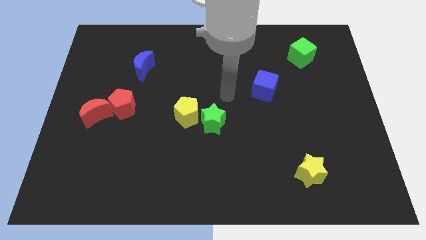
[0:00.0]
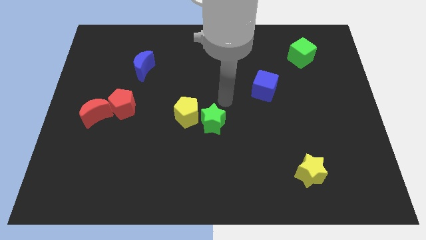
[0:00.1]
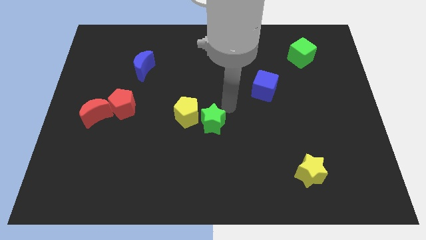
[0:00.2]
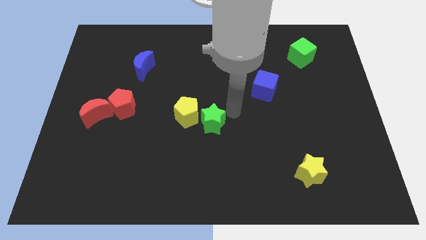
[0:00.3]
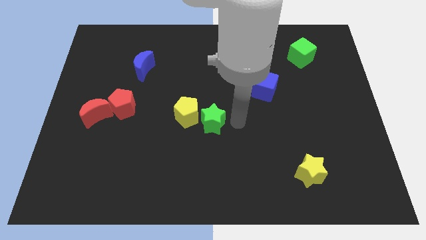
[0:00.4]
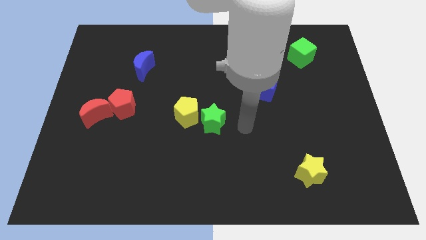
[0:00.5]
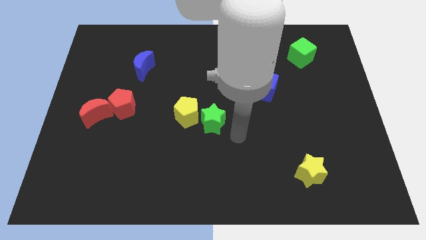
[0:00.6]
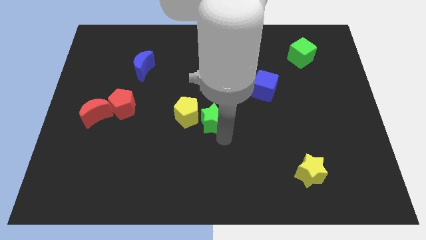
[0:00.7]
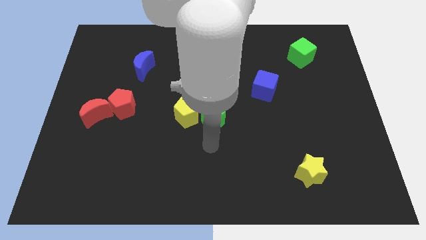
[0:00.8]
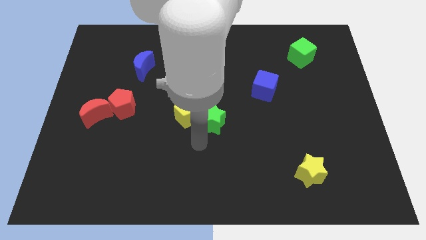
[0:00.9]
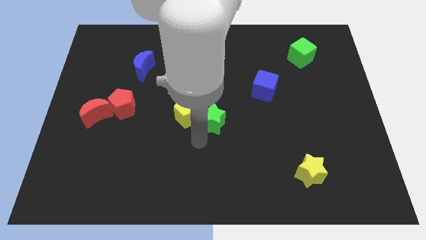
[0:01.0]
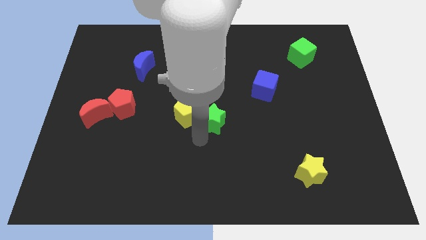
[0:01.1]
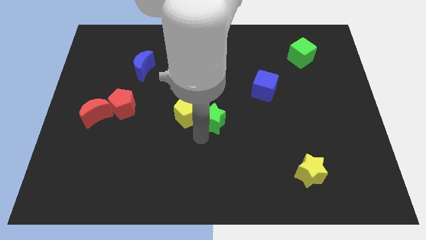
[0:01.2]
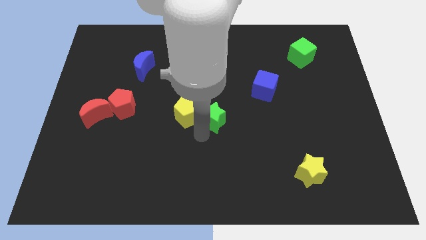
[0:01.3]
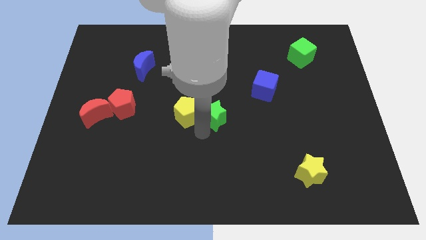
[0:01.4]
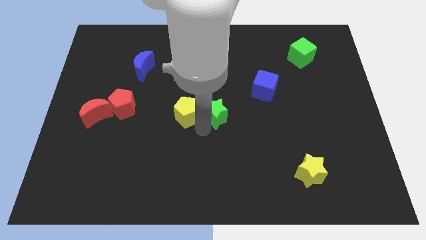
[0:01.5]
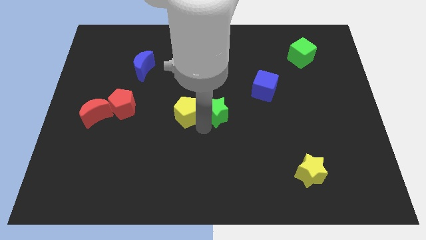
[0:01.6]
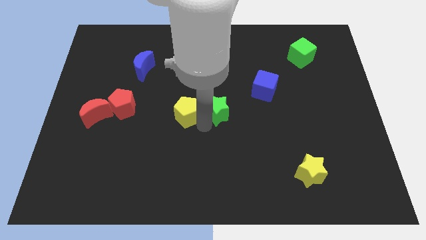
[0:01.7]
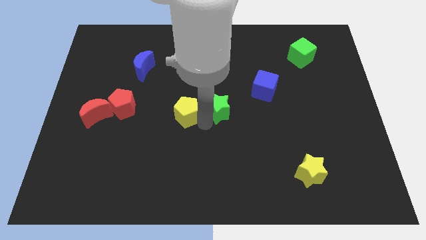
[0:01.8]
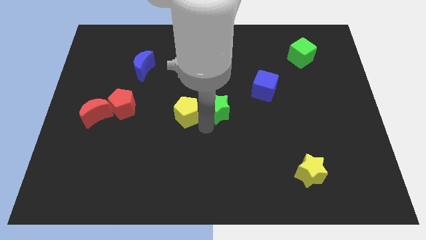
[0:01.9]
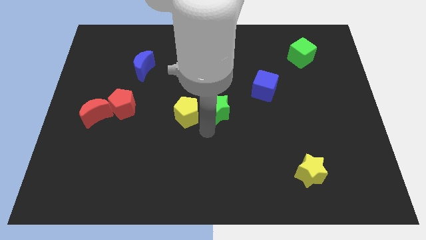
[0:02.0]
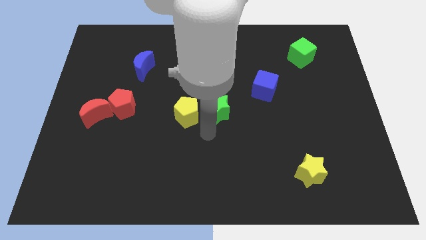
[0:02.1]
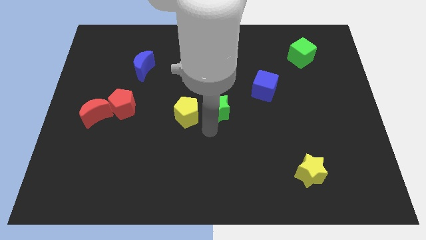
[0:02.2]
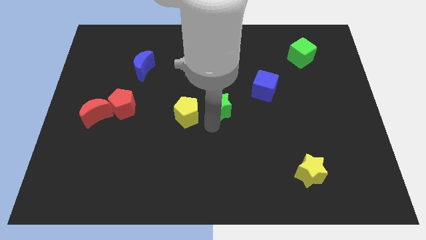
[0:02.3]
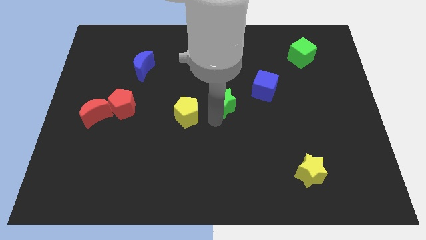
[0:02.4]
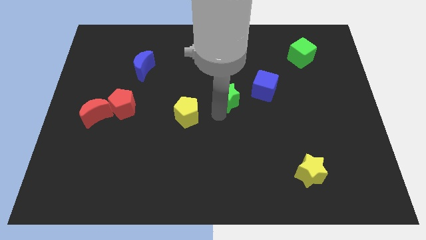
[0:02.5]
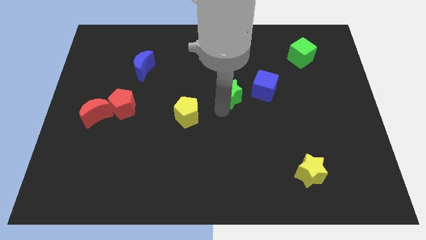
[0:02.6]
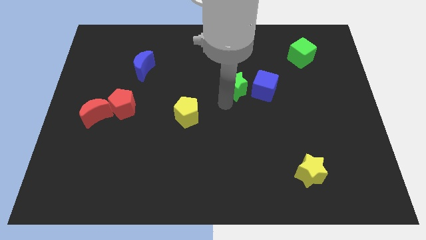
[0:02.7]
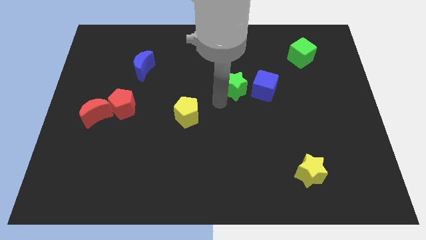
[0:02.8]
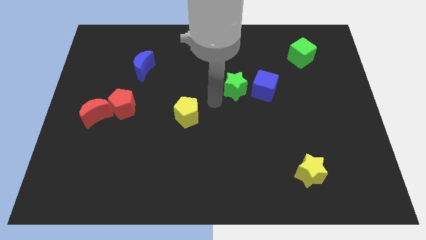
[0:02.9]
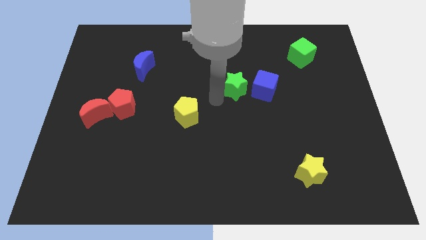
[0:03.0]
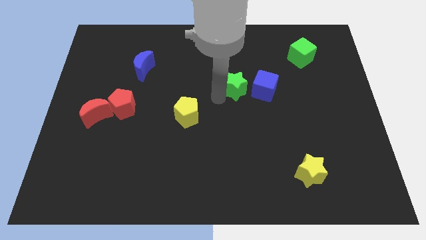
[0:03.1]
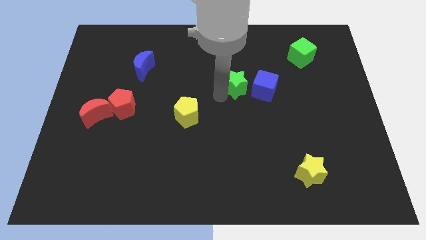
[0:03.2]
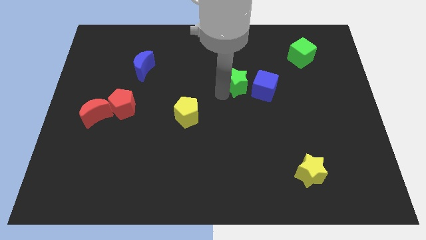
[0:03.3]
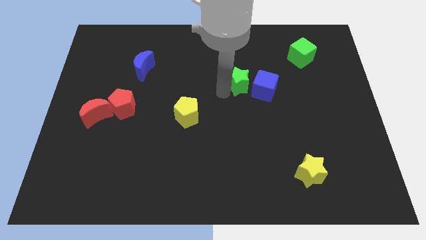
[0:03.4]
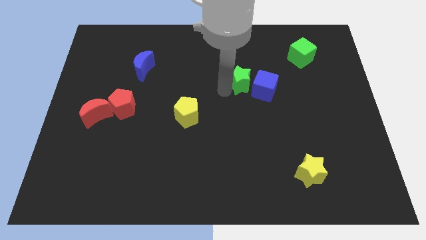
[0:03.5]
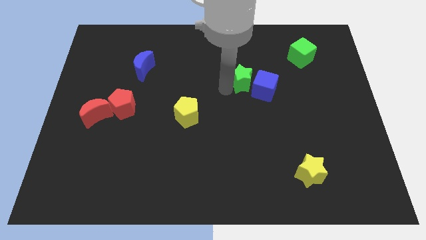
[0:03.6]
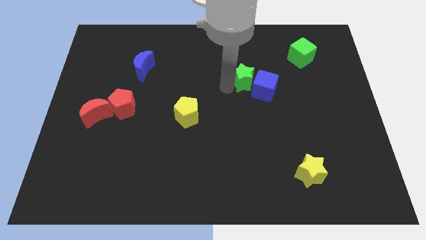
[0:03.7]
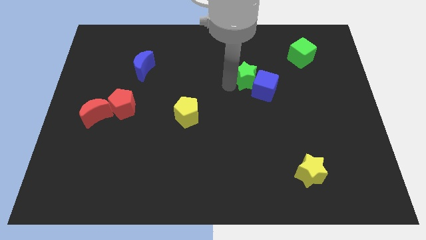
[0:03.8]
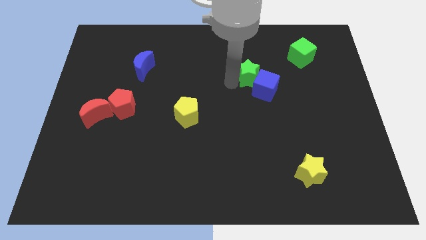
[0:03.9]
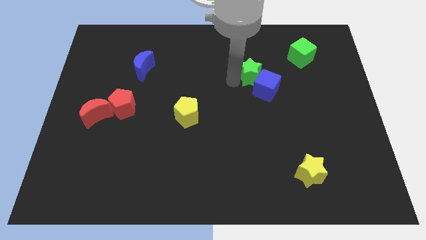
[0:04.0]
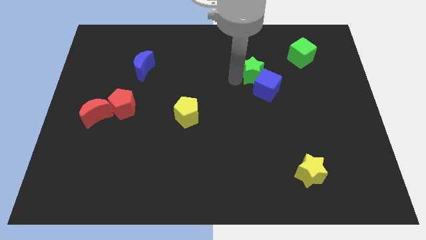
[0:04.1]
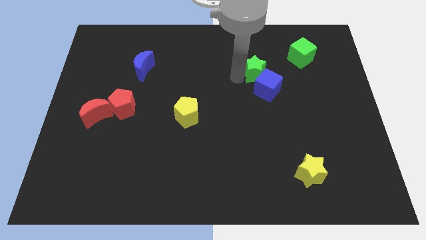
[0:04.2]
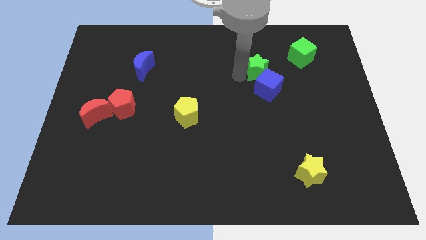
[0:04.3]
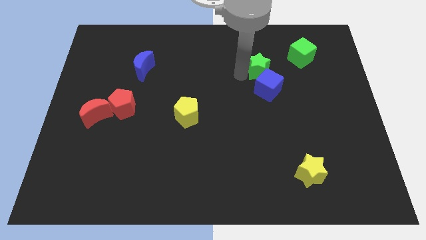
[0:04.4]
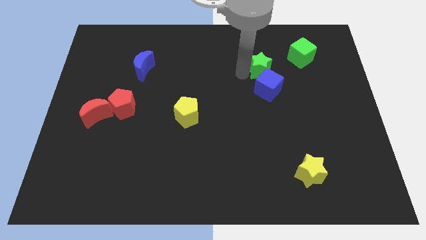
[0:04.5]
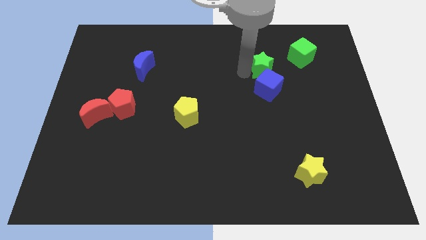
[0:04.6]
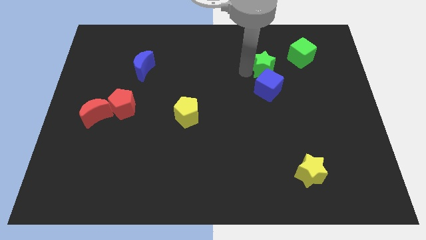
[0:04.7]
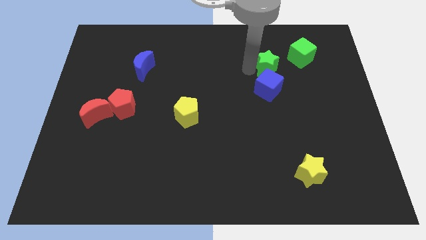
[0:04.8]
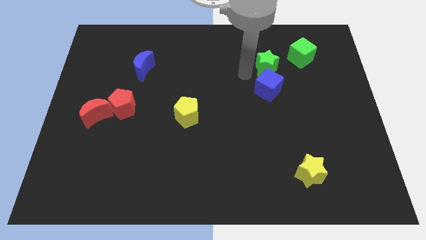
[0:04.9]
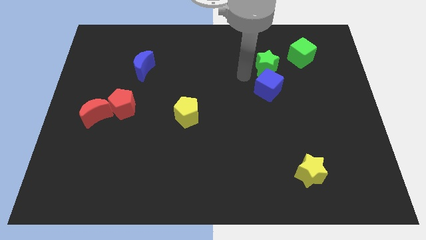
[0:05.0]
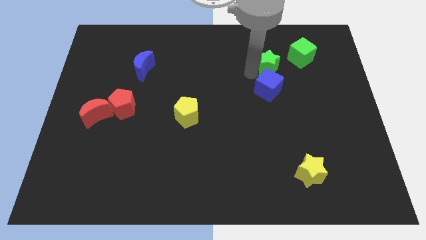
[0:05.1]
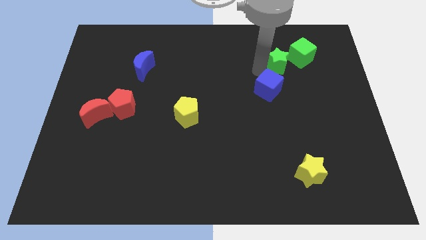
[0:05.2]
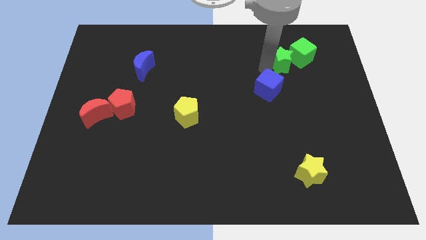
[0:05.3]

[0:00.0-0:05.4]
move the green star to the green cube
